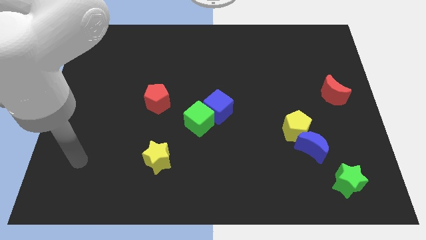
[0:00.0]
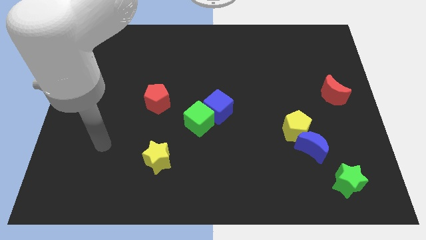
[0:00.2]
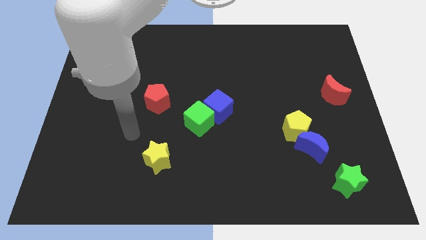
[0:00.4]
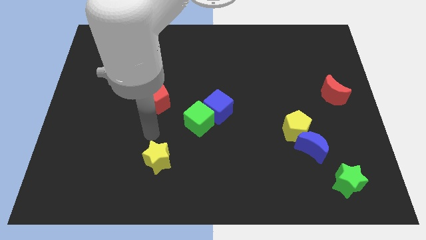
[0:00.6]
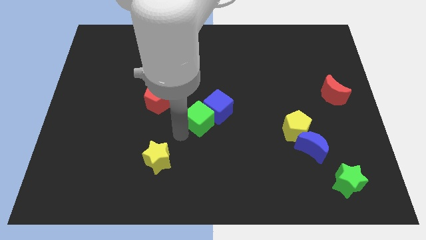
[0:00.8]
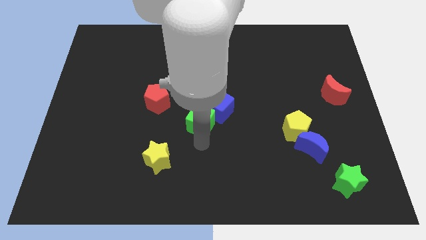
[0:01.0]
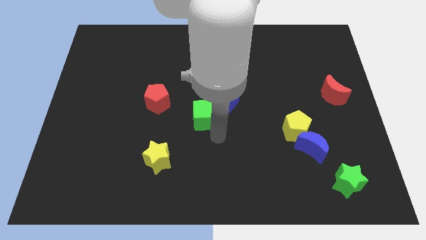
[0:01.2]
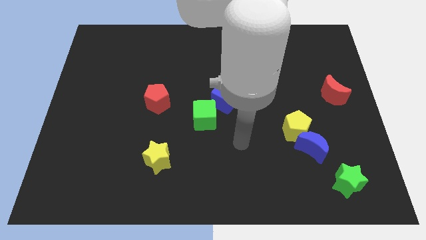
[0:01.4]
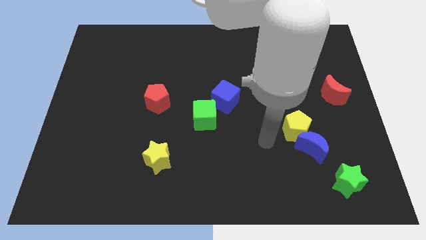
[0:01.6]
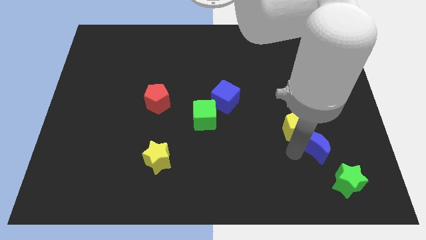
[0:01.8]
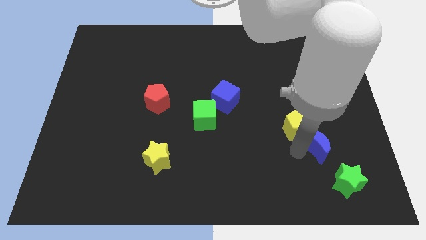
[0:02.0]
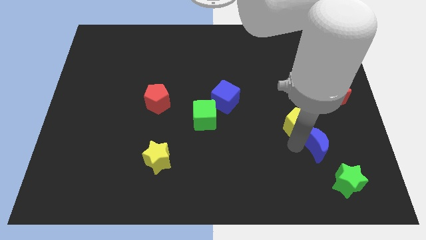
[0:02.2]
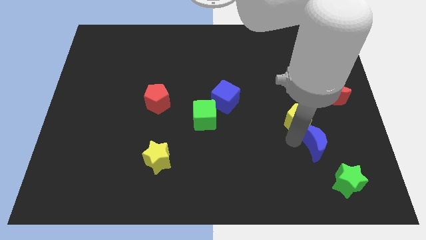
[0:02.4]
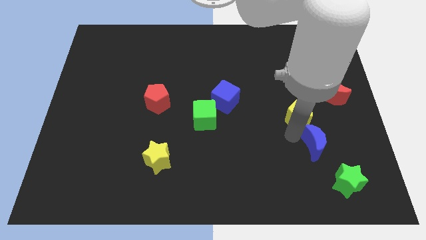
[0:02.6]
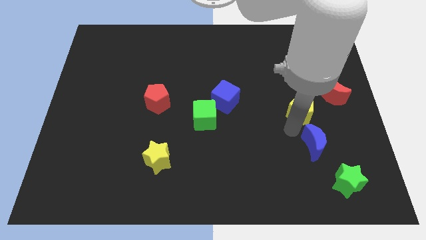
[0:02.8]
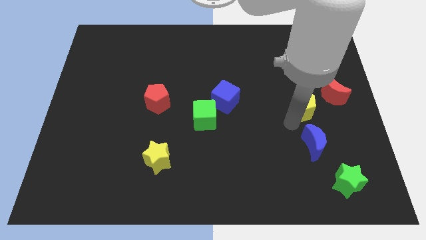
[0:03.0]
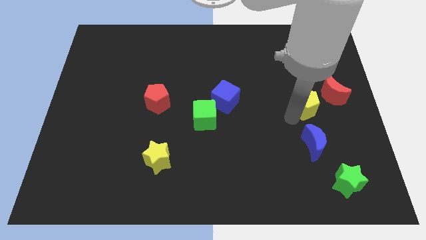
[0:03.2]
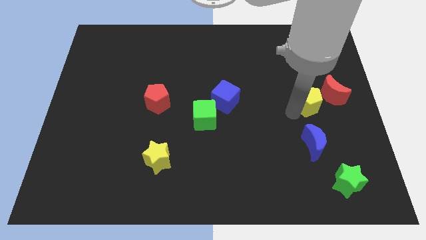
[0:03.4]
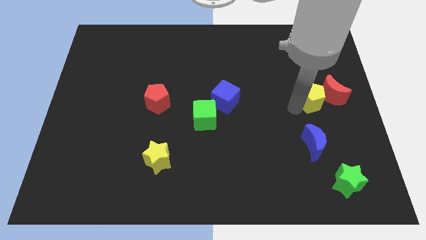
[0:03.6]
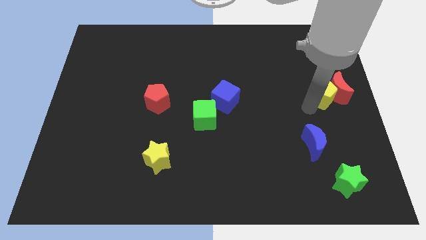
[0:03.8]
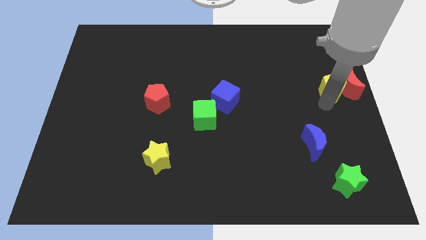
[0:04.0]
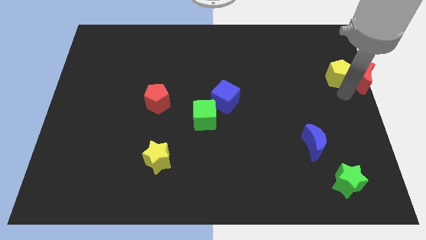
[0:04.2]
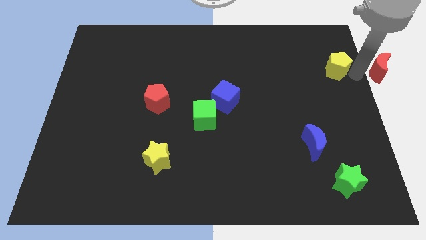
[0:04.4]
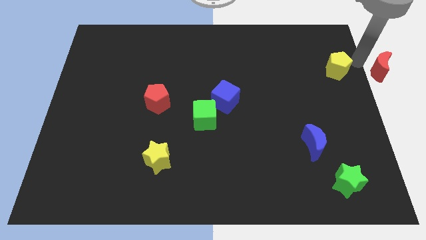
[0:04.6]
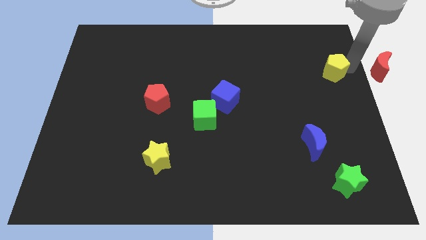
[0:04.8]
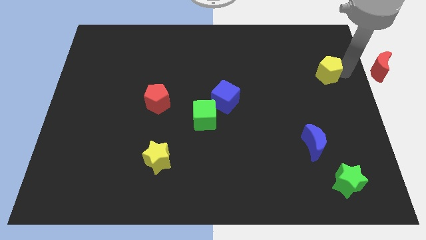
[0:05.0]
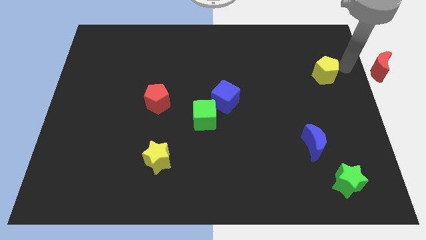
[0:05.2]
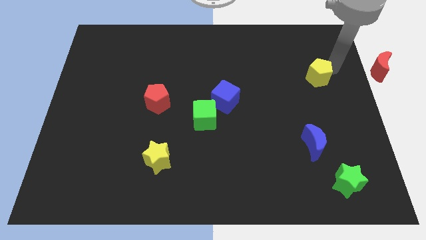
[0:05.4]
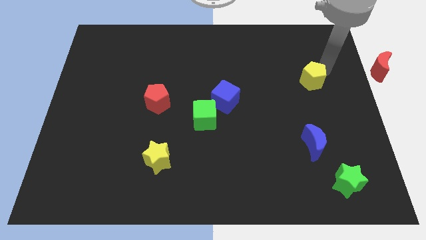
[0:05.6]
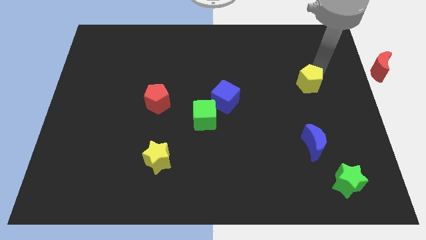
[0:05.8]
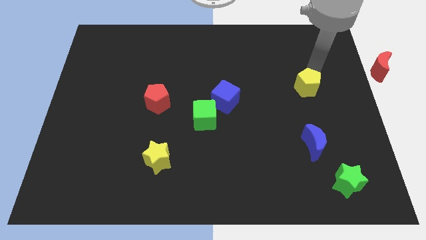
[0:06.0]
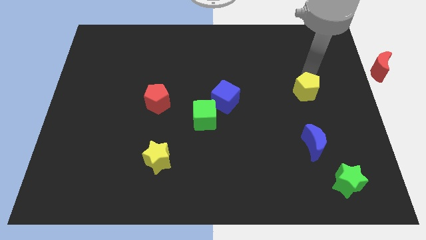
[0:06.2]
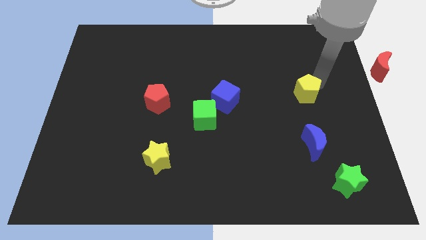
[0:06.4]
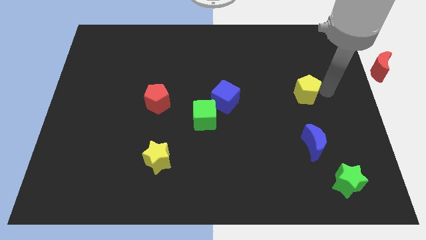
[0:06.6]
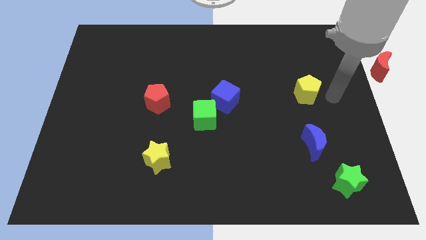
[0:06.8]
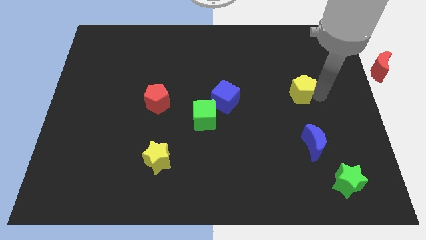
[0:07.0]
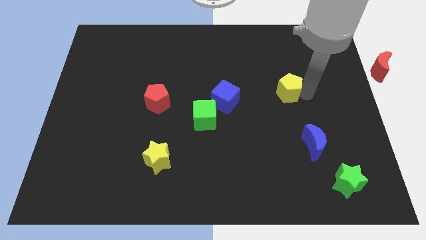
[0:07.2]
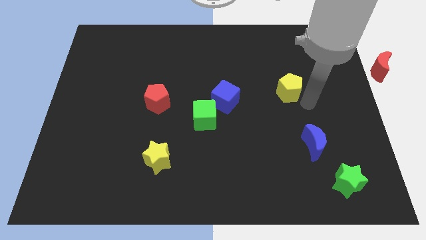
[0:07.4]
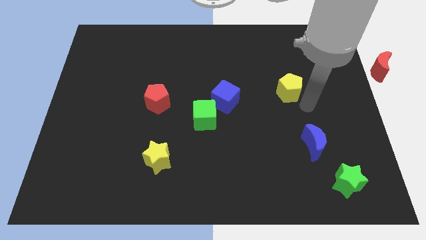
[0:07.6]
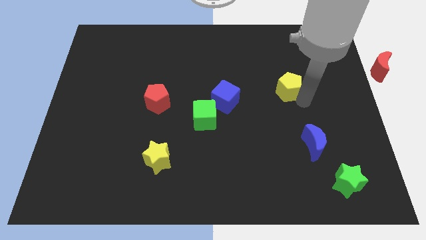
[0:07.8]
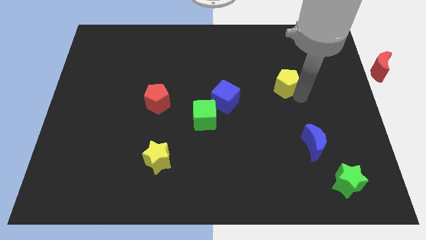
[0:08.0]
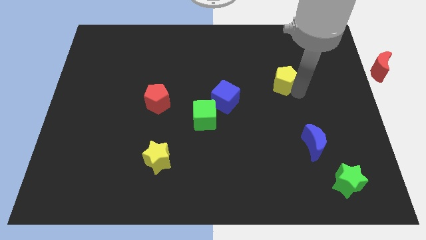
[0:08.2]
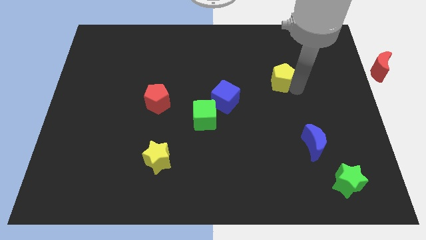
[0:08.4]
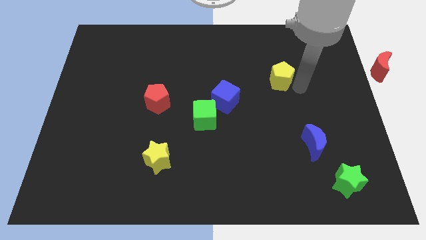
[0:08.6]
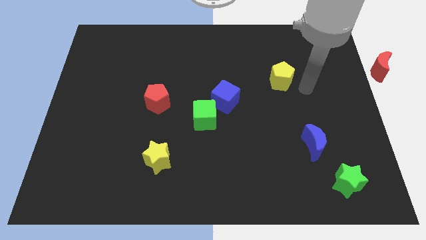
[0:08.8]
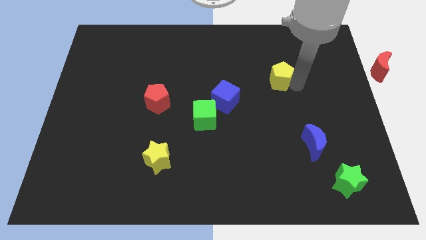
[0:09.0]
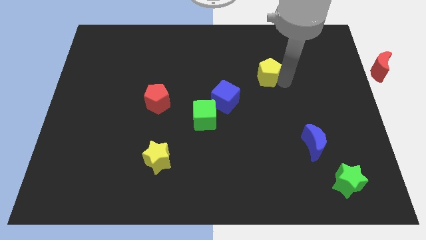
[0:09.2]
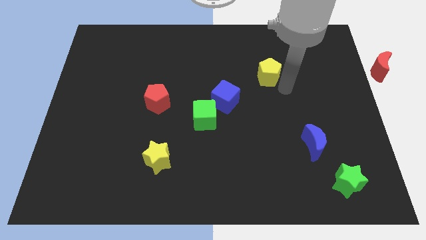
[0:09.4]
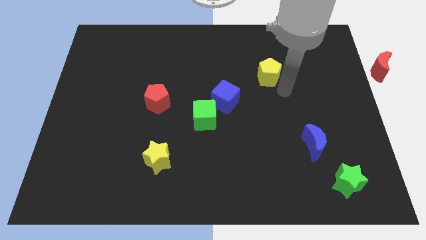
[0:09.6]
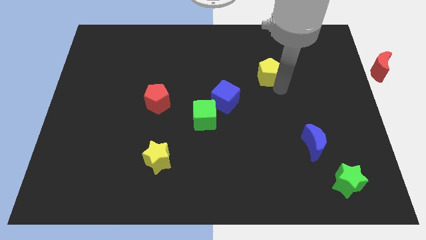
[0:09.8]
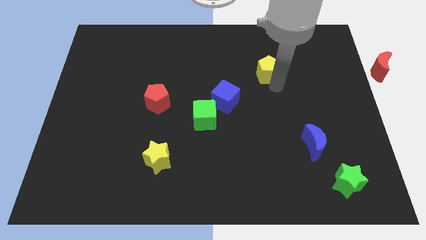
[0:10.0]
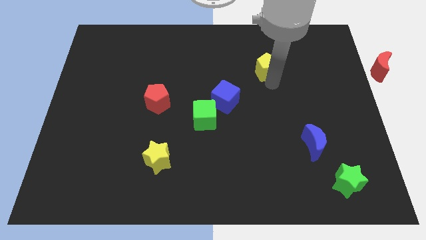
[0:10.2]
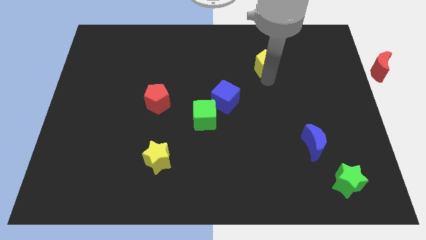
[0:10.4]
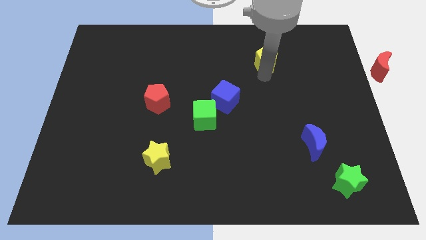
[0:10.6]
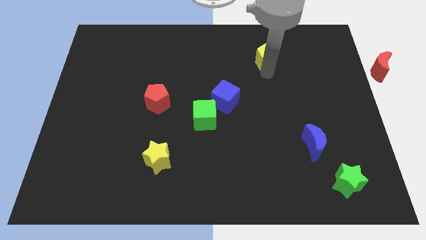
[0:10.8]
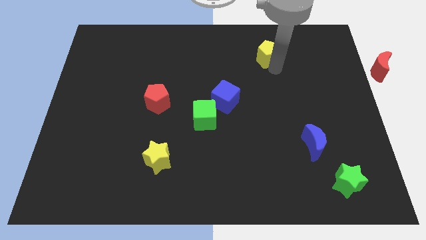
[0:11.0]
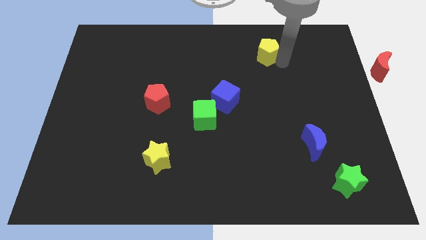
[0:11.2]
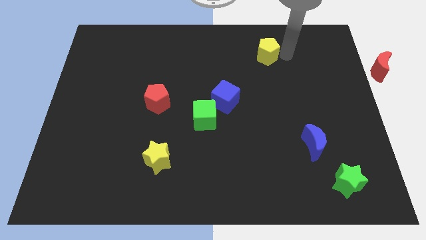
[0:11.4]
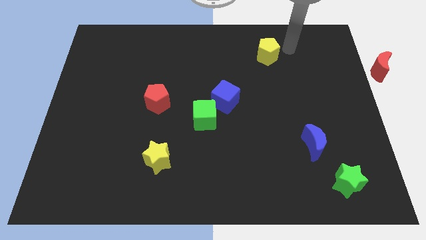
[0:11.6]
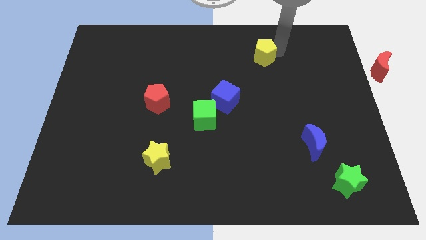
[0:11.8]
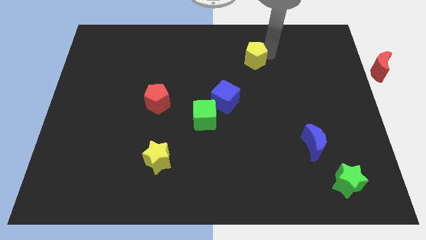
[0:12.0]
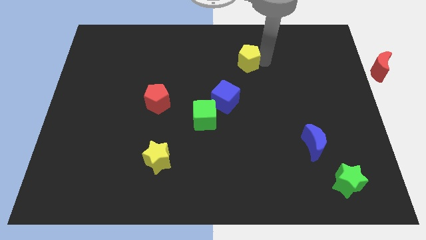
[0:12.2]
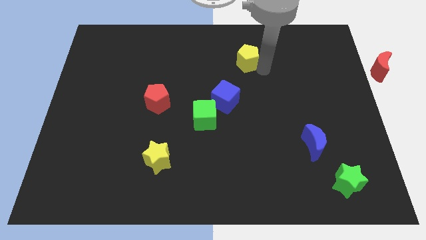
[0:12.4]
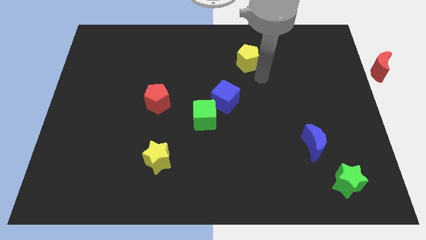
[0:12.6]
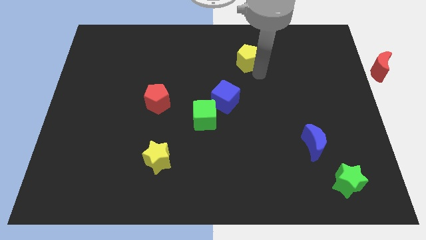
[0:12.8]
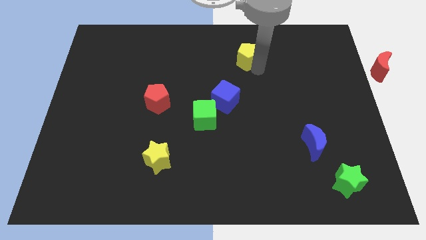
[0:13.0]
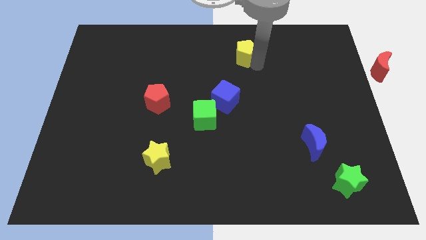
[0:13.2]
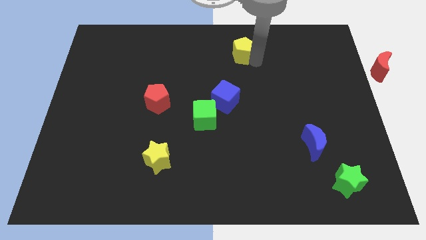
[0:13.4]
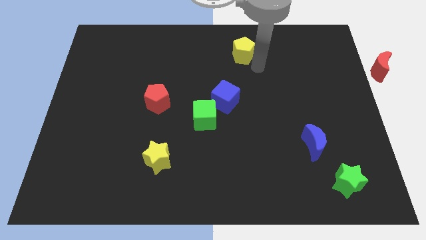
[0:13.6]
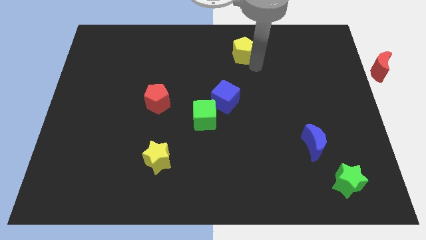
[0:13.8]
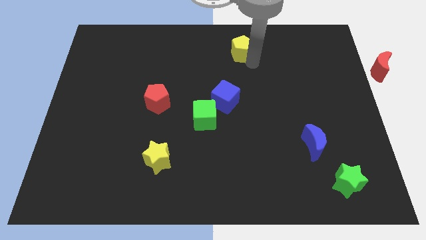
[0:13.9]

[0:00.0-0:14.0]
move the yellow pentagon to the towards your base

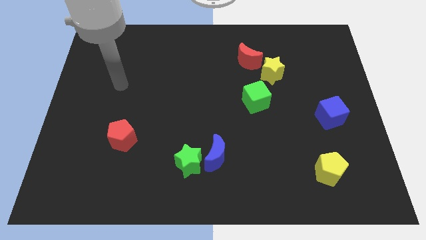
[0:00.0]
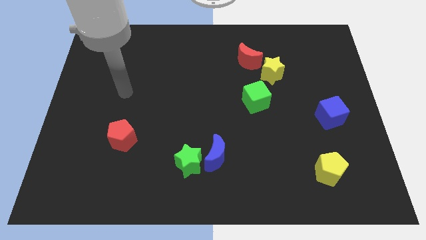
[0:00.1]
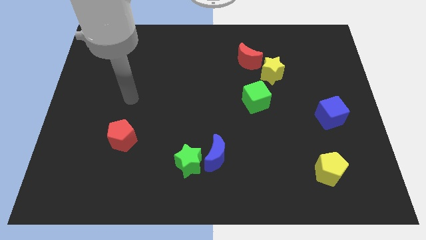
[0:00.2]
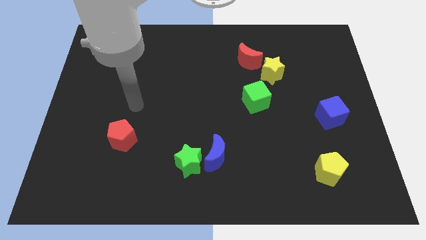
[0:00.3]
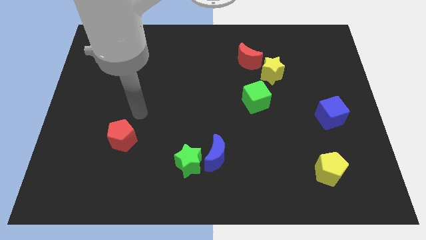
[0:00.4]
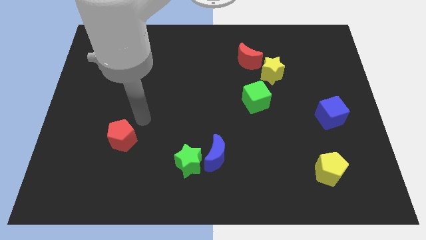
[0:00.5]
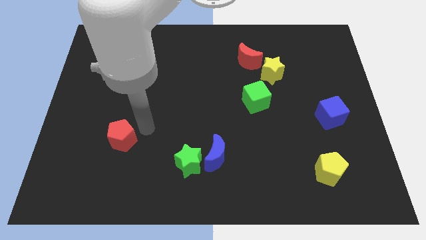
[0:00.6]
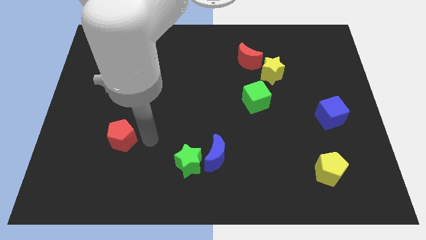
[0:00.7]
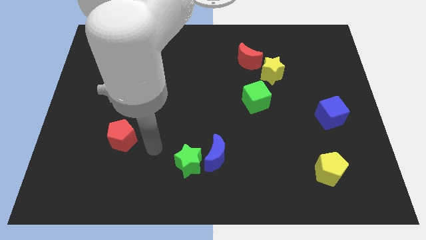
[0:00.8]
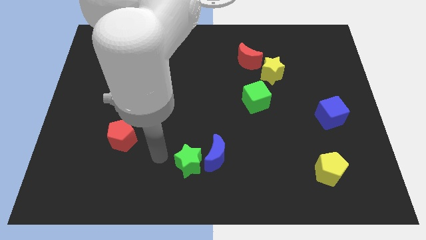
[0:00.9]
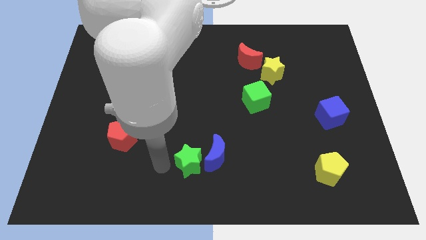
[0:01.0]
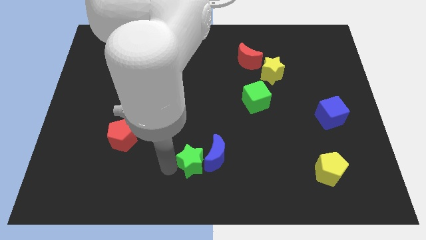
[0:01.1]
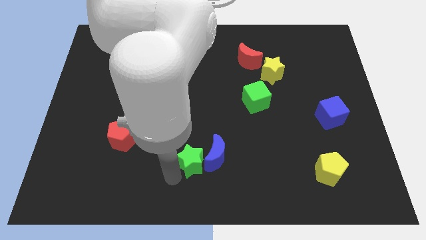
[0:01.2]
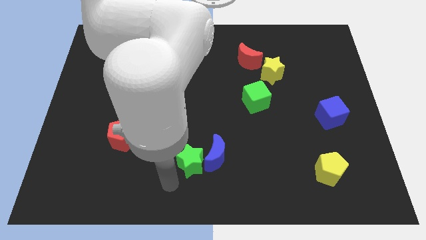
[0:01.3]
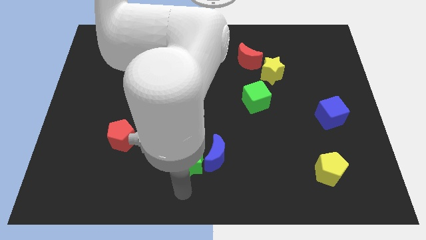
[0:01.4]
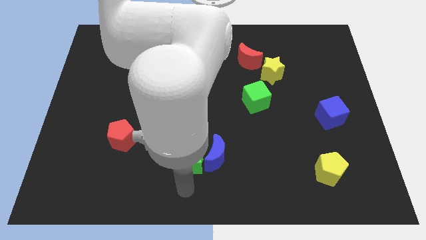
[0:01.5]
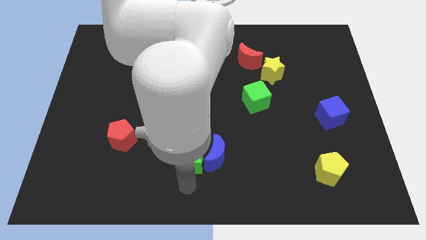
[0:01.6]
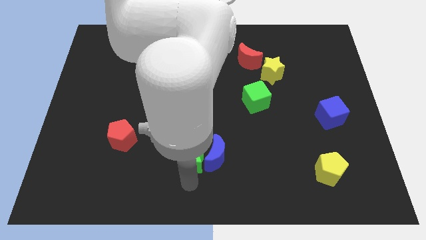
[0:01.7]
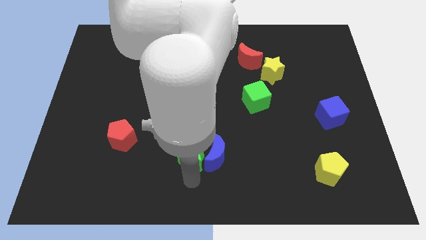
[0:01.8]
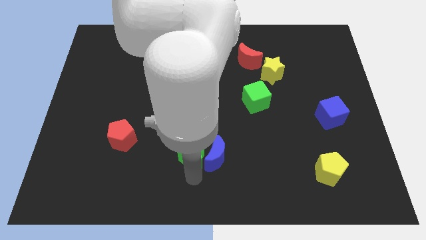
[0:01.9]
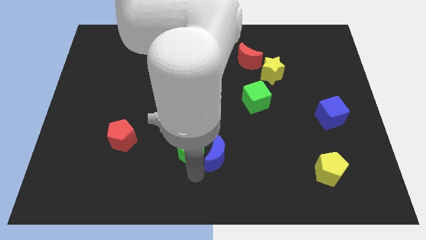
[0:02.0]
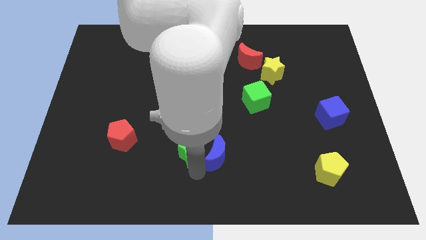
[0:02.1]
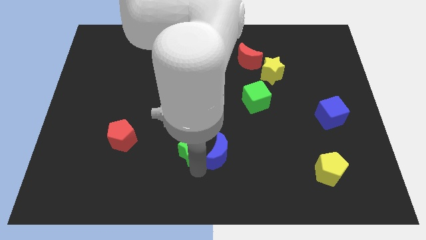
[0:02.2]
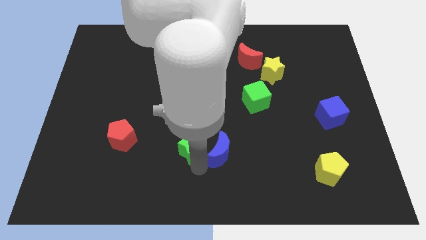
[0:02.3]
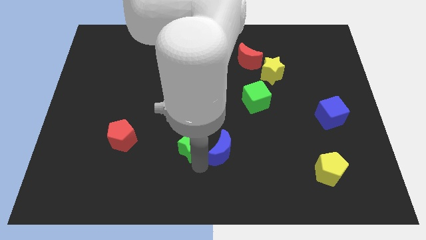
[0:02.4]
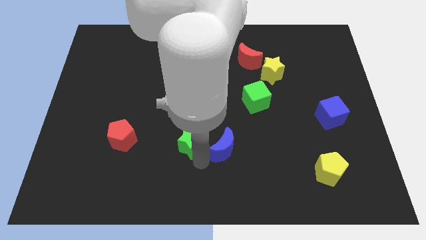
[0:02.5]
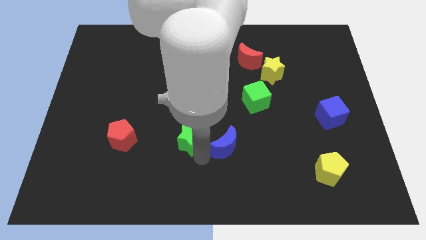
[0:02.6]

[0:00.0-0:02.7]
put the green star to the center of the board
